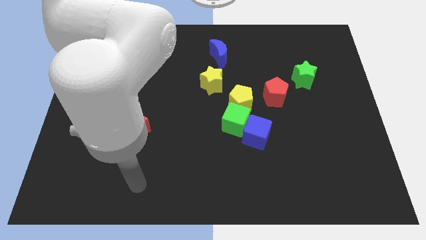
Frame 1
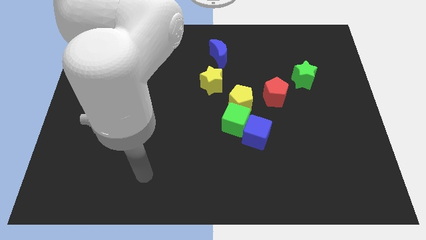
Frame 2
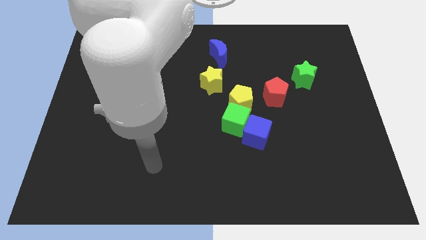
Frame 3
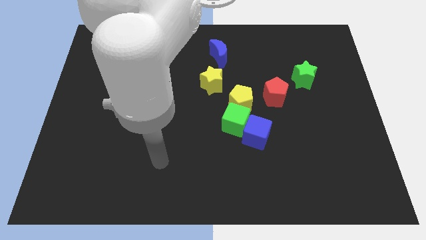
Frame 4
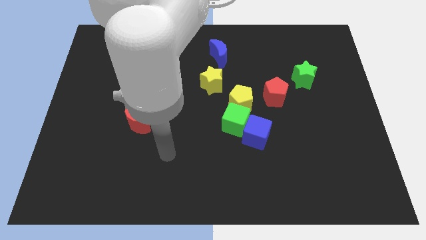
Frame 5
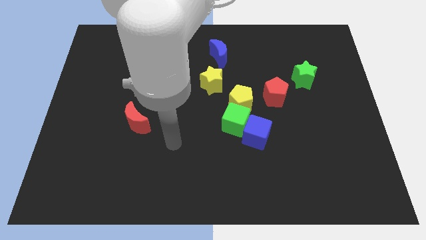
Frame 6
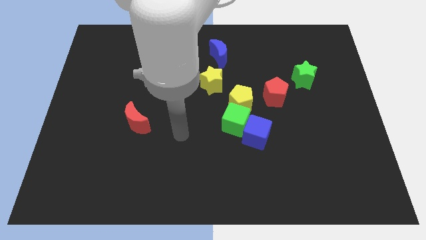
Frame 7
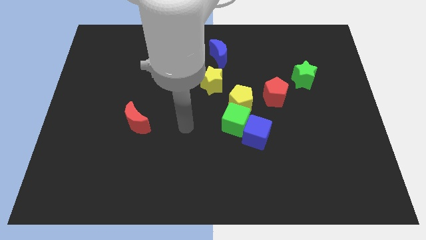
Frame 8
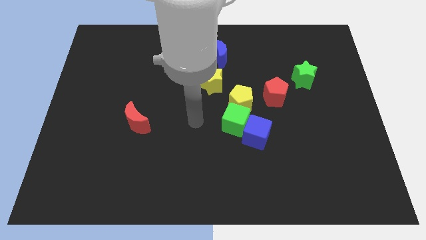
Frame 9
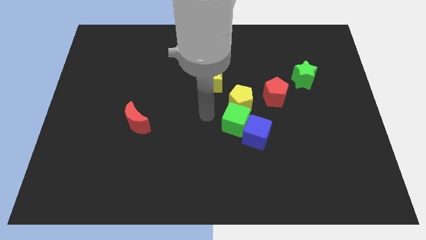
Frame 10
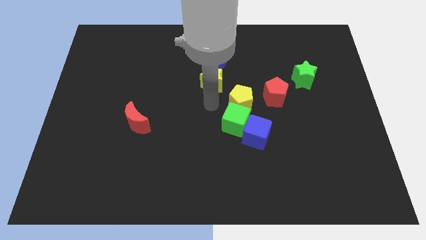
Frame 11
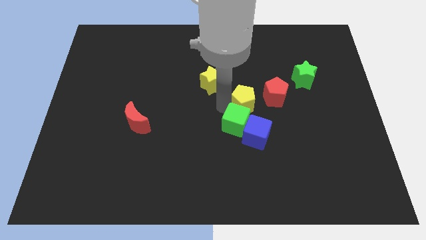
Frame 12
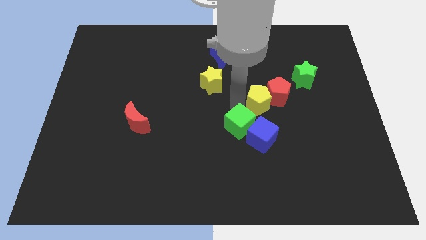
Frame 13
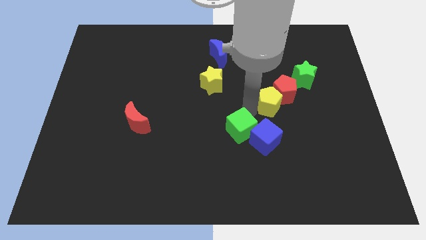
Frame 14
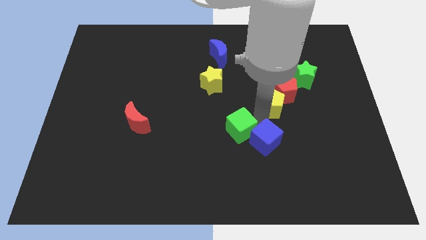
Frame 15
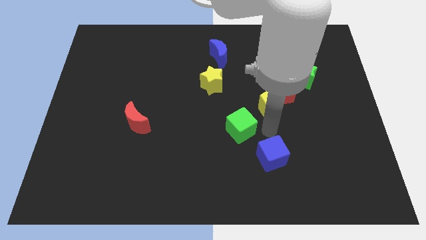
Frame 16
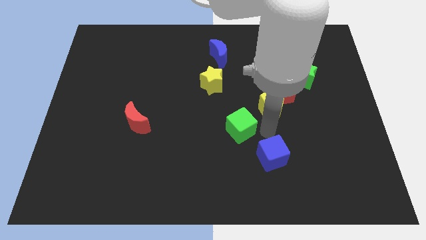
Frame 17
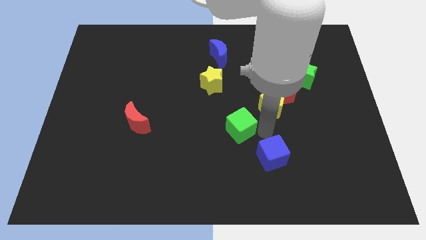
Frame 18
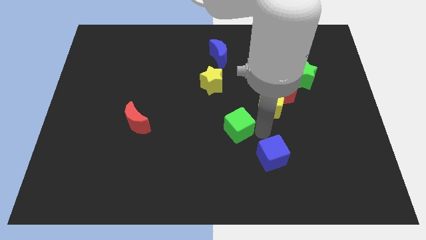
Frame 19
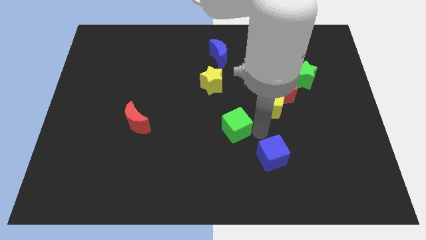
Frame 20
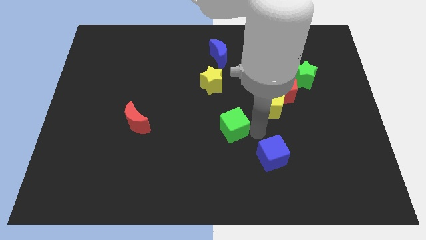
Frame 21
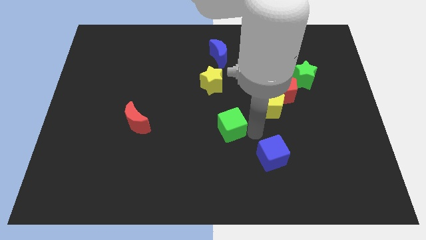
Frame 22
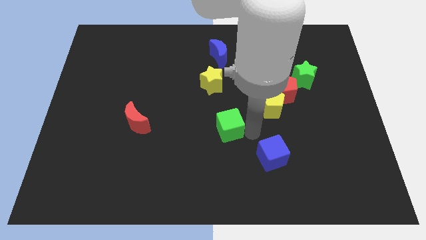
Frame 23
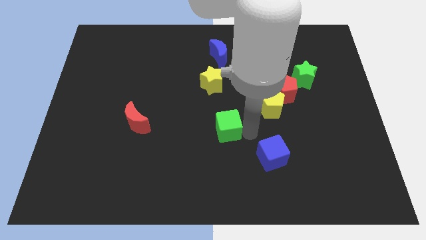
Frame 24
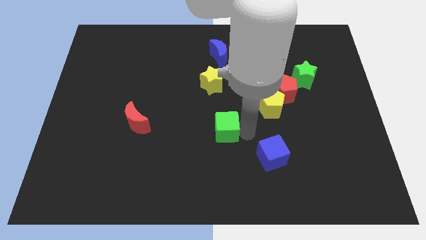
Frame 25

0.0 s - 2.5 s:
move the green cube away from the blue cube and yellow pentagon

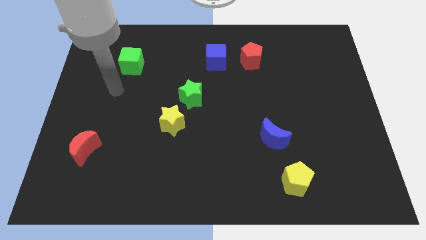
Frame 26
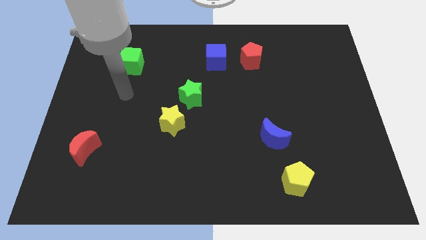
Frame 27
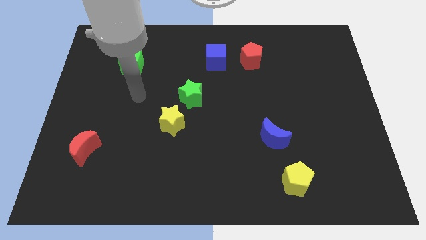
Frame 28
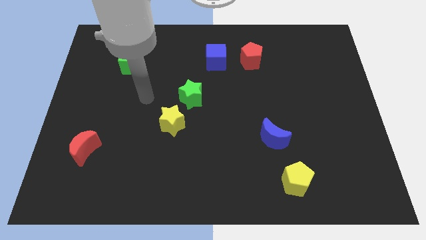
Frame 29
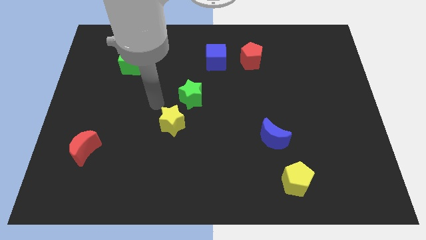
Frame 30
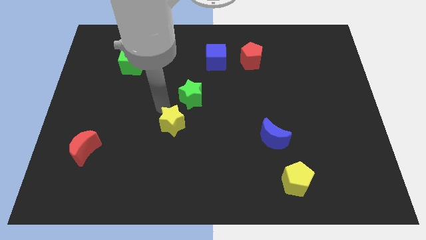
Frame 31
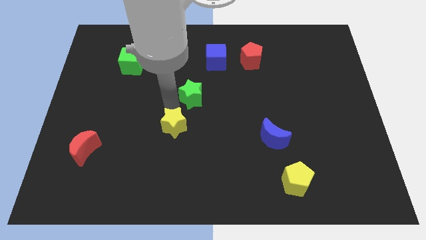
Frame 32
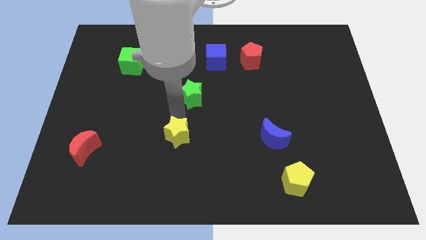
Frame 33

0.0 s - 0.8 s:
pull the green star apart from the yellow star

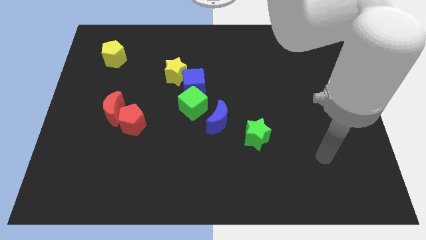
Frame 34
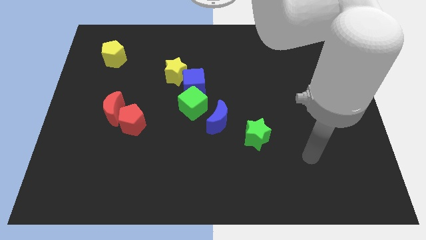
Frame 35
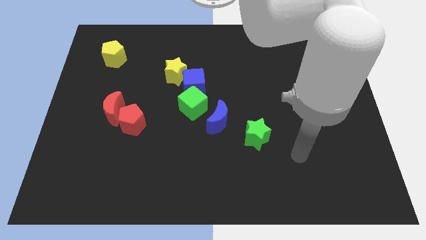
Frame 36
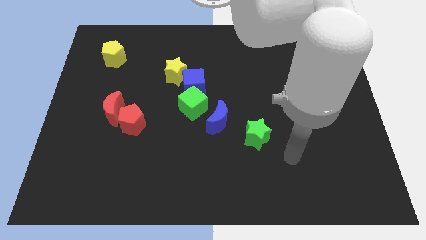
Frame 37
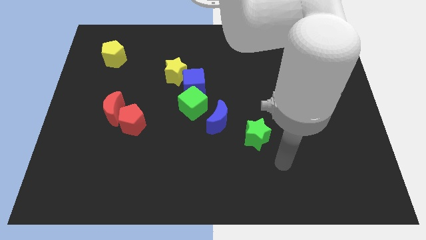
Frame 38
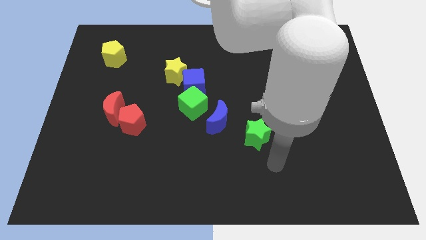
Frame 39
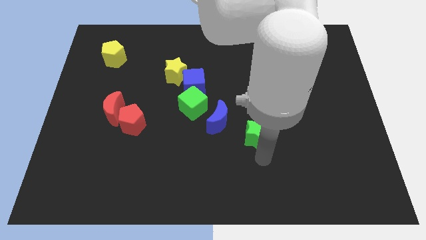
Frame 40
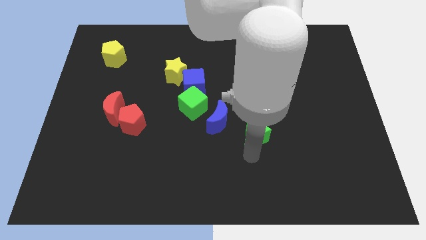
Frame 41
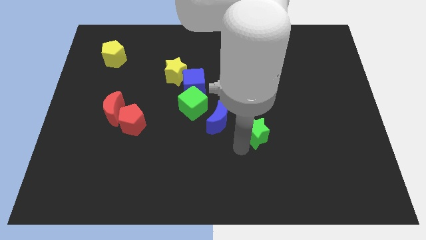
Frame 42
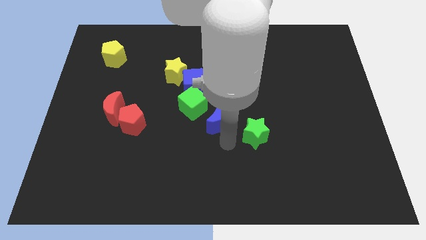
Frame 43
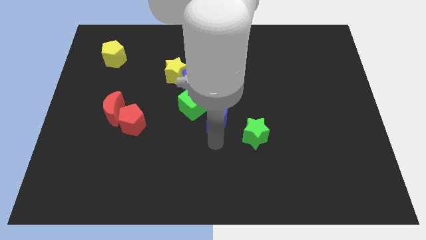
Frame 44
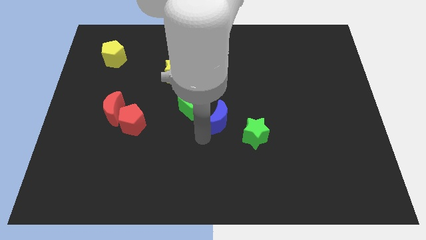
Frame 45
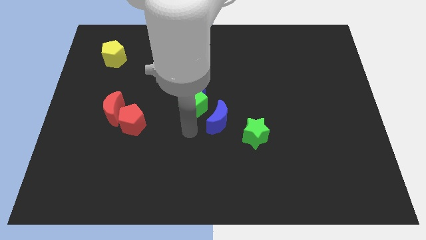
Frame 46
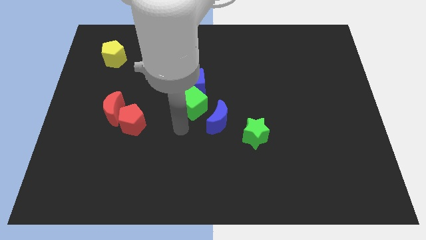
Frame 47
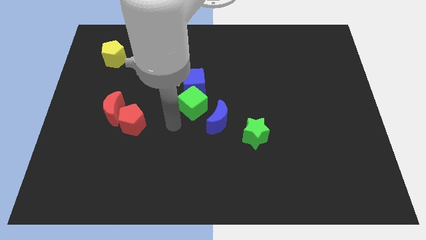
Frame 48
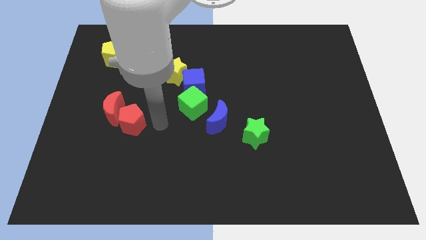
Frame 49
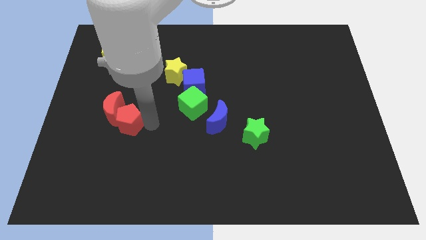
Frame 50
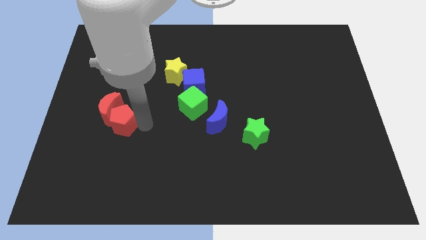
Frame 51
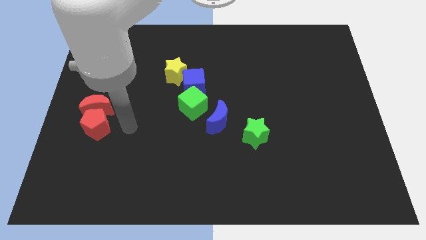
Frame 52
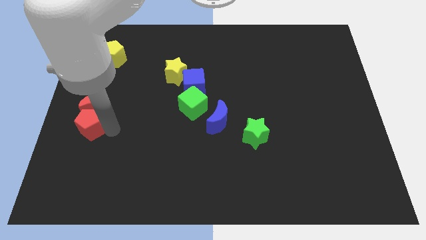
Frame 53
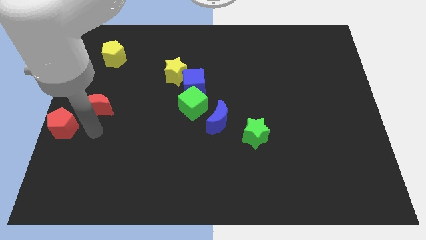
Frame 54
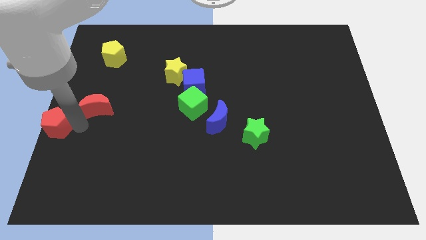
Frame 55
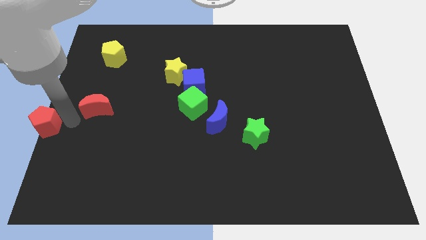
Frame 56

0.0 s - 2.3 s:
separate the red moon from the red pentagon

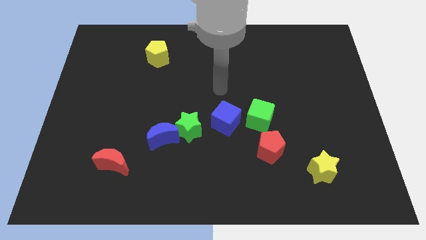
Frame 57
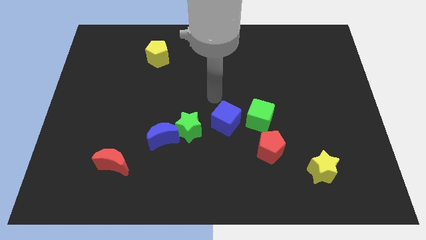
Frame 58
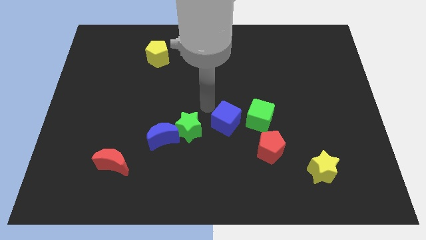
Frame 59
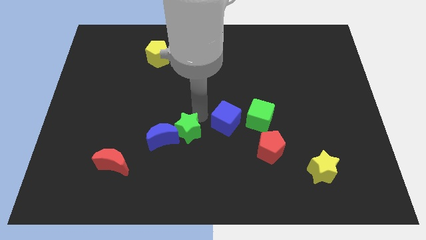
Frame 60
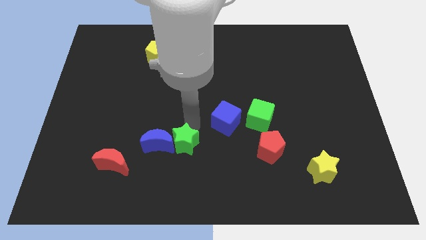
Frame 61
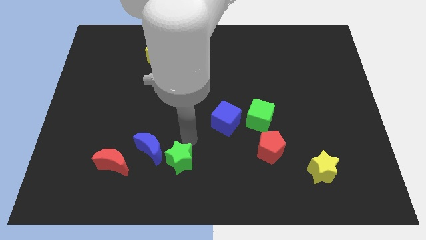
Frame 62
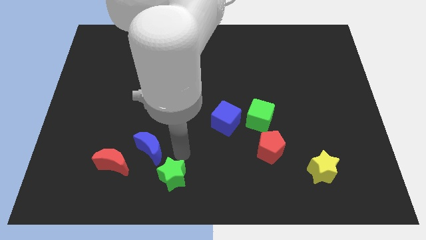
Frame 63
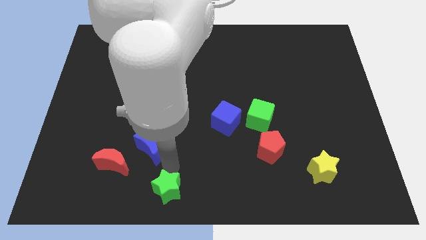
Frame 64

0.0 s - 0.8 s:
pull the blue moon apart from the green star

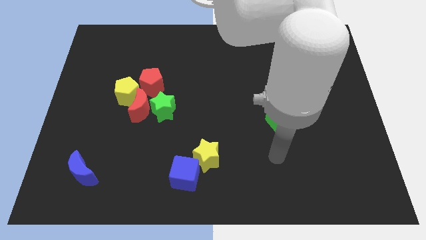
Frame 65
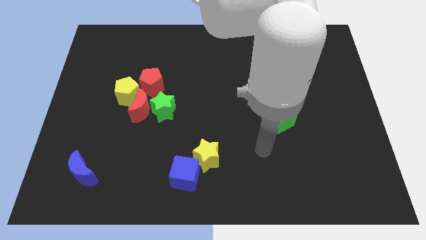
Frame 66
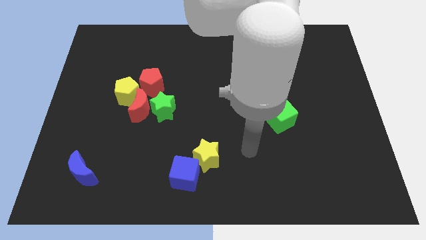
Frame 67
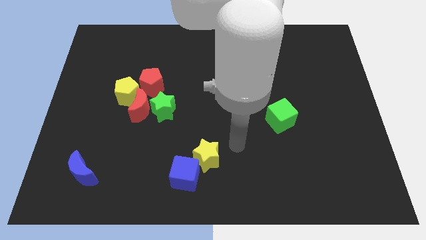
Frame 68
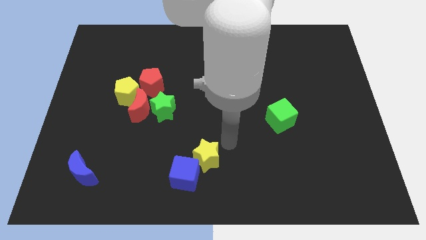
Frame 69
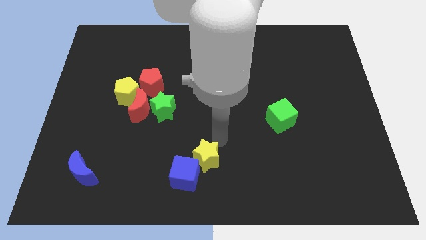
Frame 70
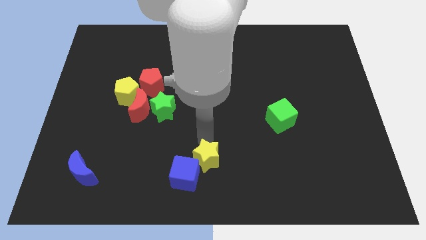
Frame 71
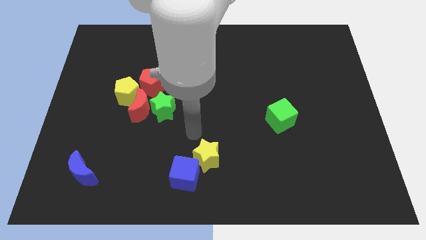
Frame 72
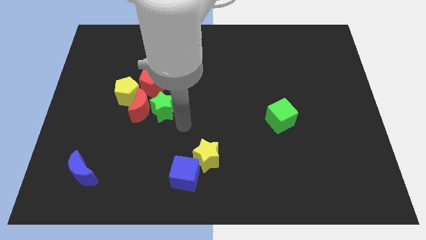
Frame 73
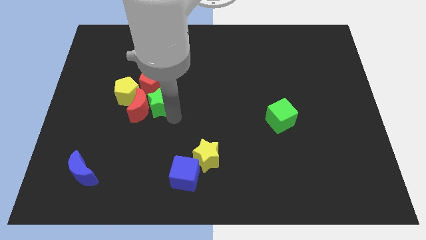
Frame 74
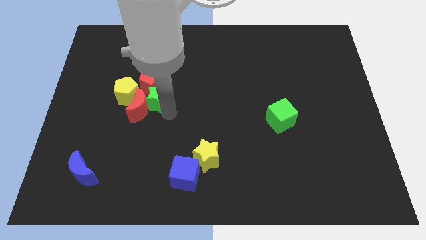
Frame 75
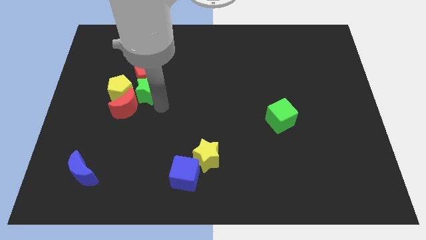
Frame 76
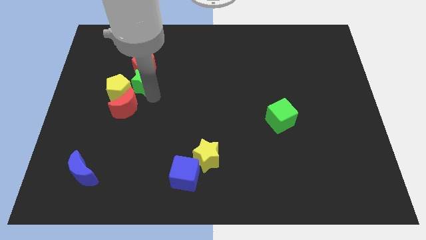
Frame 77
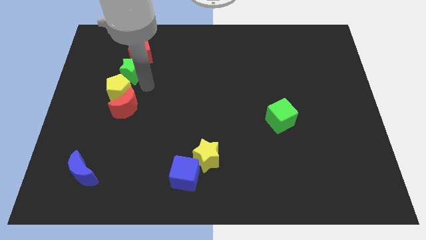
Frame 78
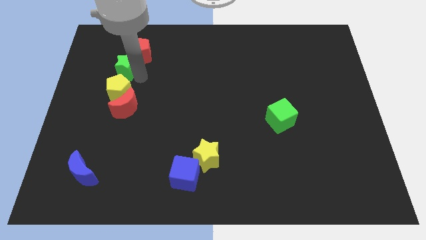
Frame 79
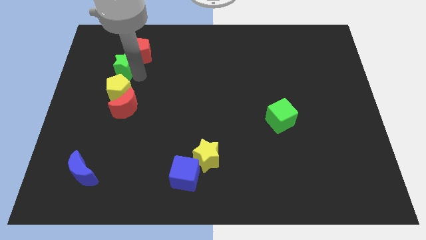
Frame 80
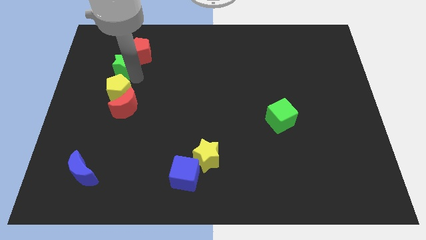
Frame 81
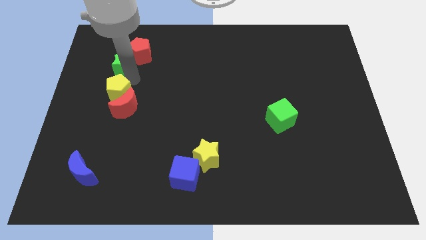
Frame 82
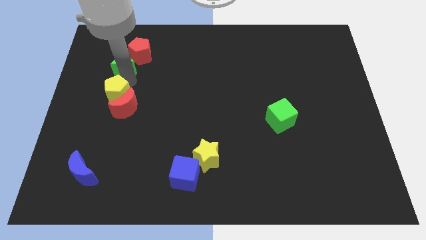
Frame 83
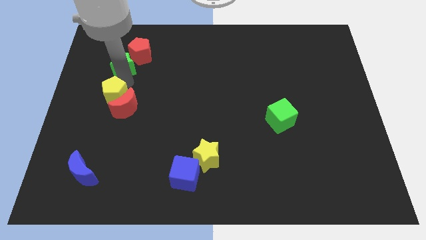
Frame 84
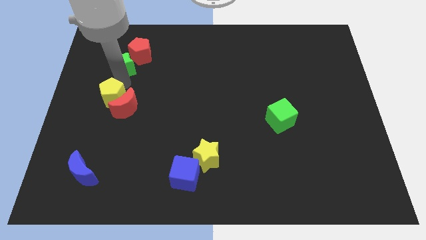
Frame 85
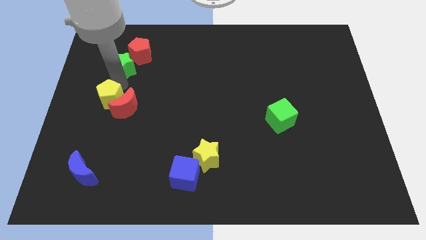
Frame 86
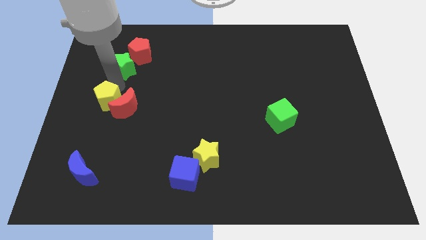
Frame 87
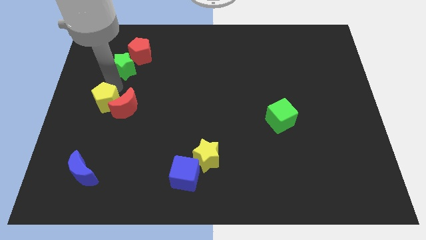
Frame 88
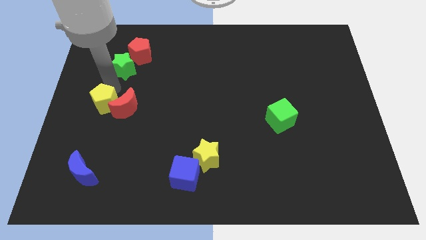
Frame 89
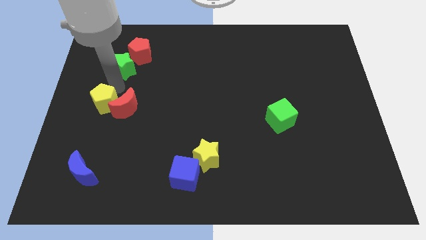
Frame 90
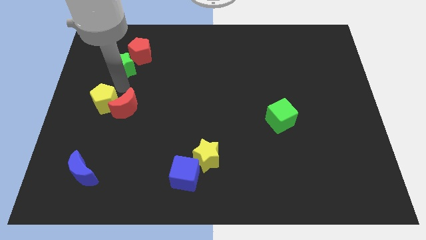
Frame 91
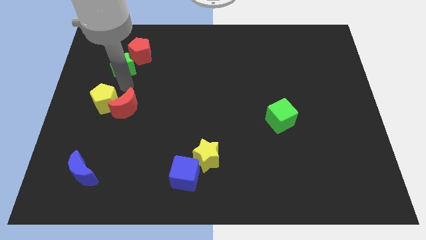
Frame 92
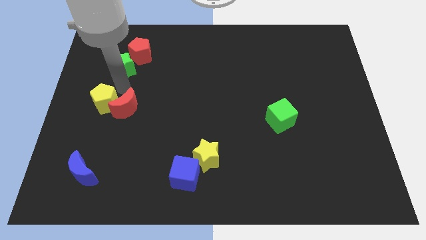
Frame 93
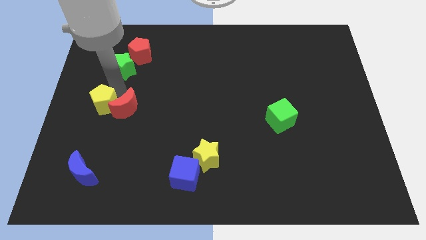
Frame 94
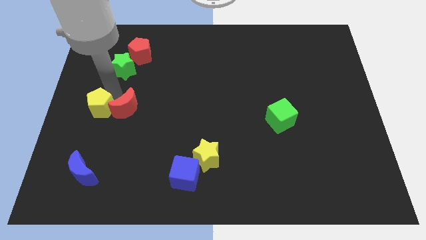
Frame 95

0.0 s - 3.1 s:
separate the yellow pentagon from the red moon and red pentagon
